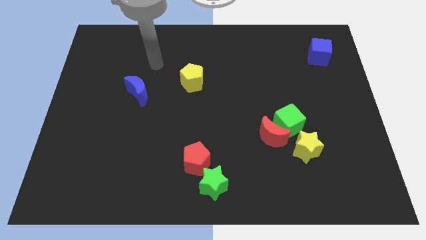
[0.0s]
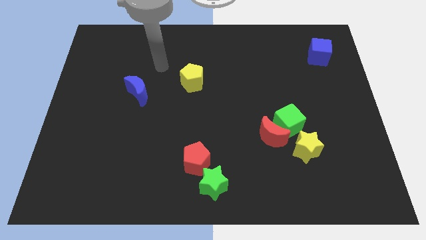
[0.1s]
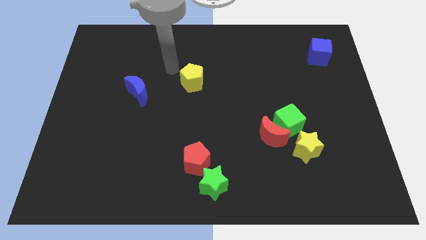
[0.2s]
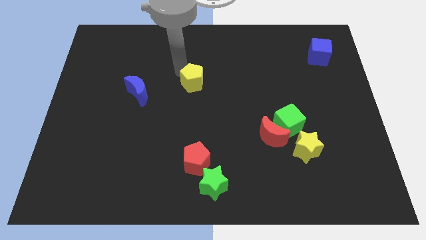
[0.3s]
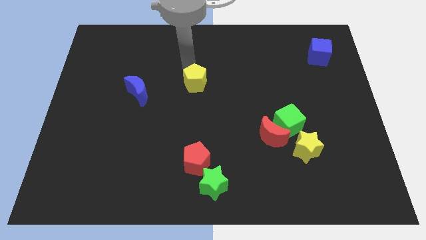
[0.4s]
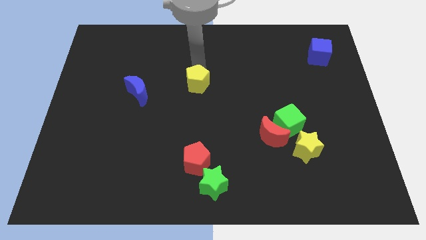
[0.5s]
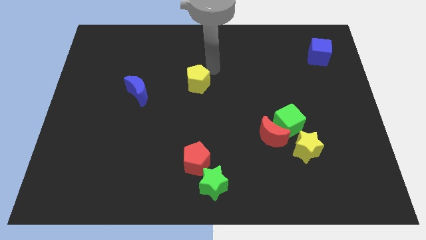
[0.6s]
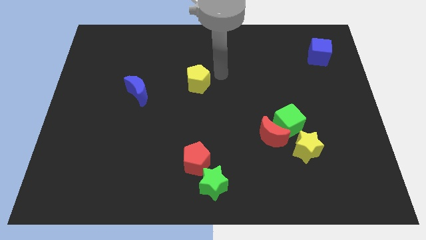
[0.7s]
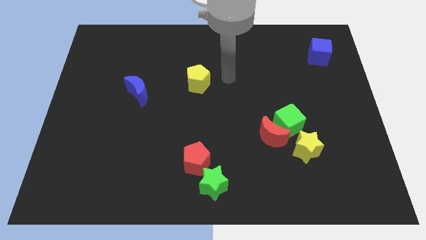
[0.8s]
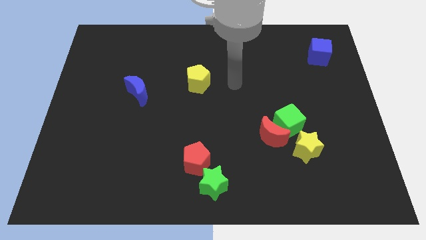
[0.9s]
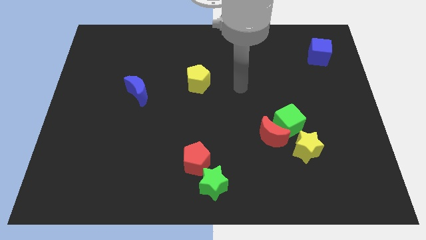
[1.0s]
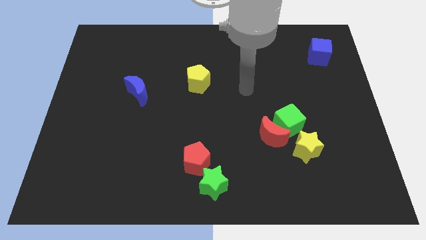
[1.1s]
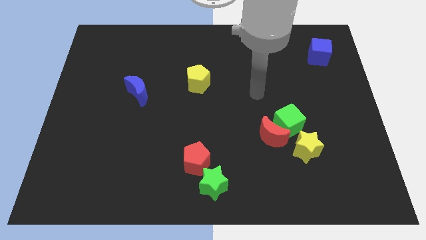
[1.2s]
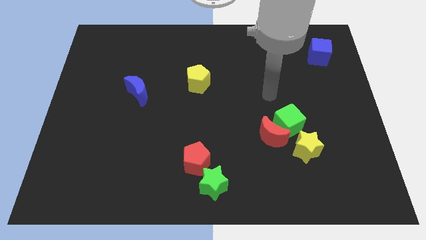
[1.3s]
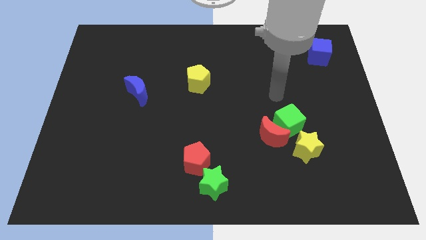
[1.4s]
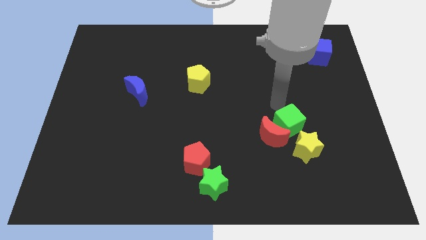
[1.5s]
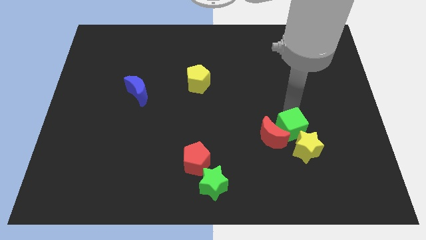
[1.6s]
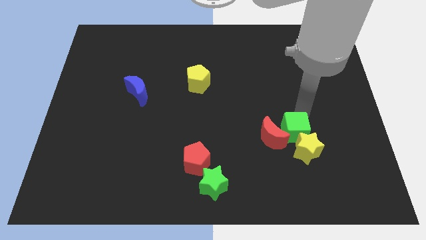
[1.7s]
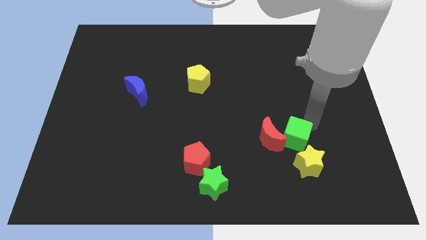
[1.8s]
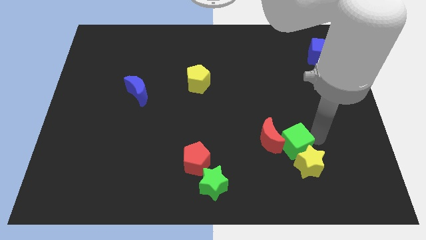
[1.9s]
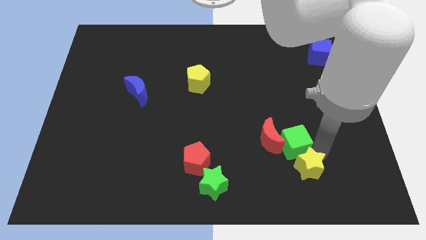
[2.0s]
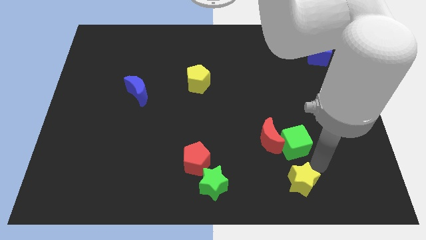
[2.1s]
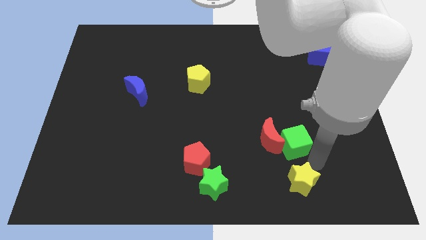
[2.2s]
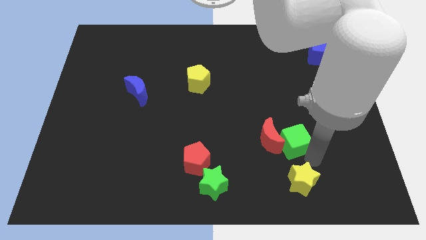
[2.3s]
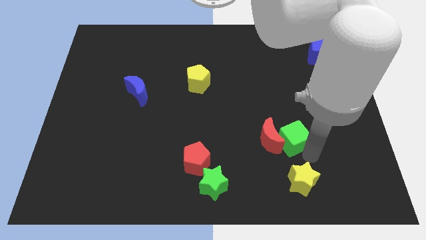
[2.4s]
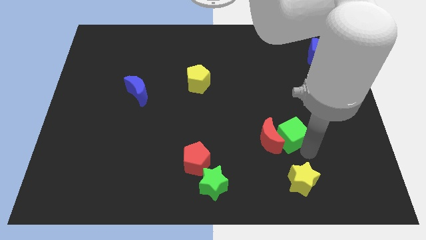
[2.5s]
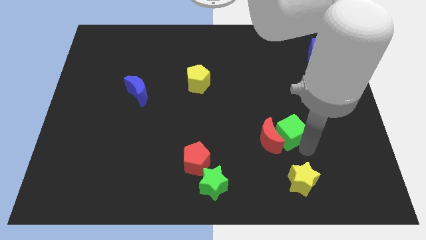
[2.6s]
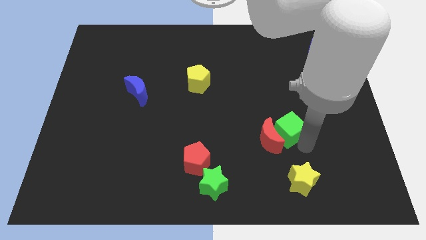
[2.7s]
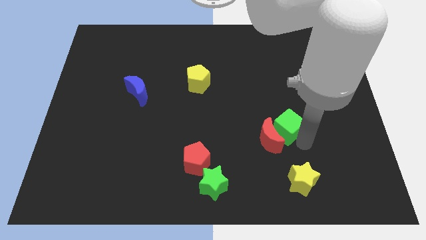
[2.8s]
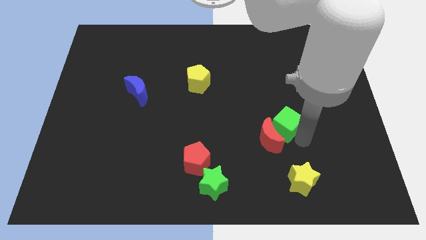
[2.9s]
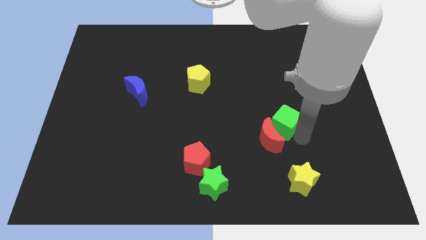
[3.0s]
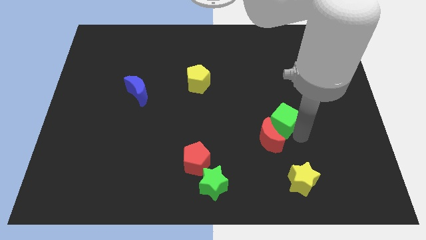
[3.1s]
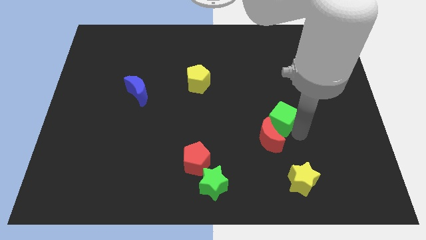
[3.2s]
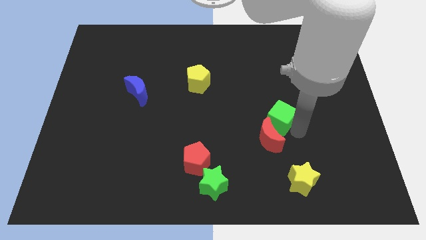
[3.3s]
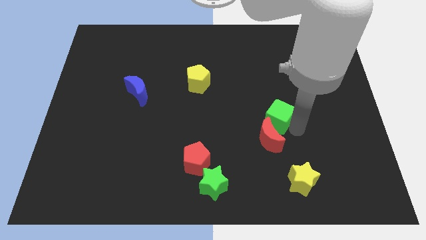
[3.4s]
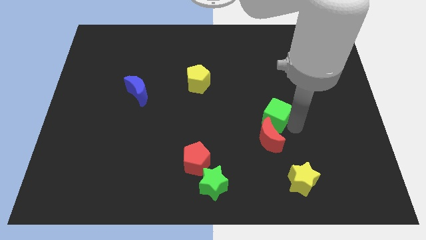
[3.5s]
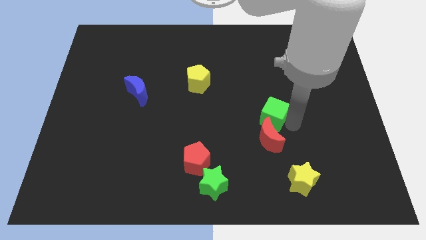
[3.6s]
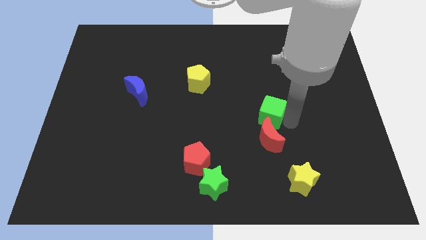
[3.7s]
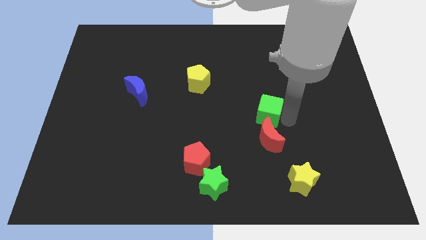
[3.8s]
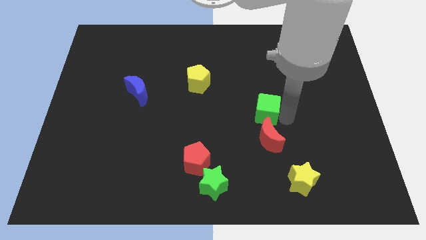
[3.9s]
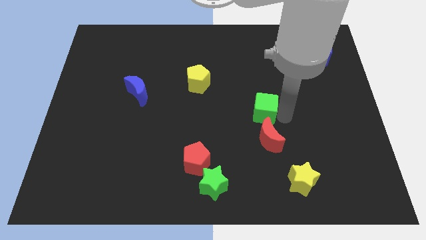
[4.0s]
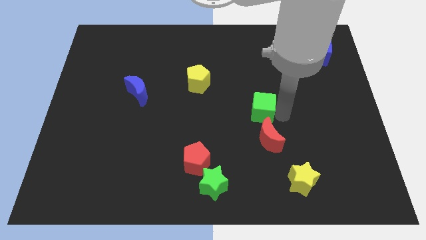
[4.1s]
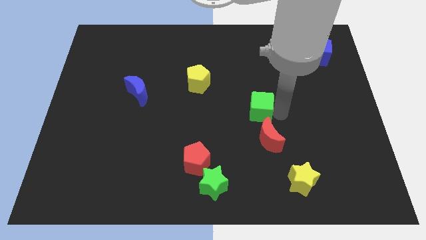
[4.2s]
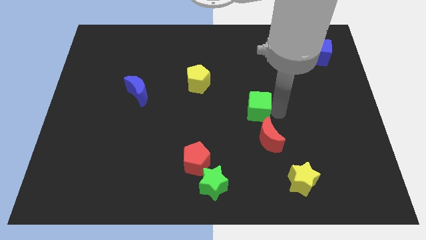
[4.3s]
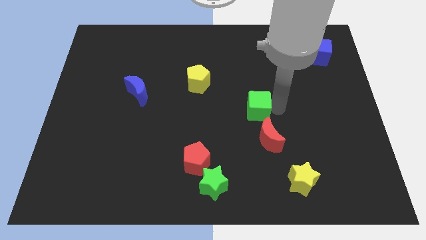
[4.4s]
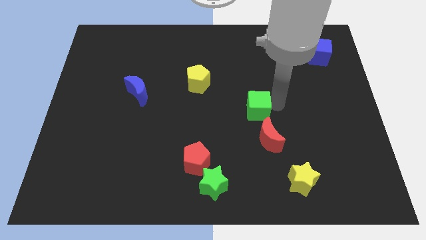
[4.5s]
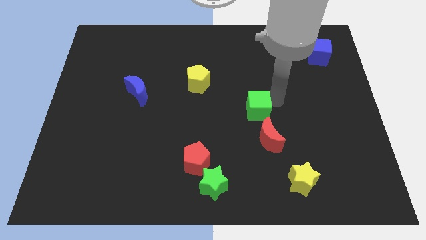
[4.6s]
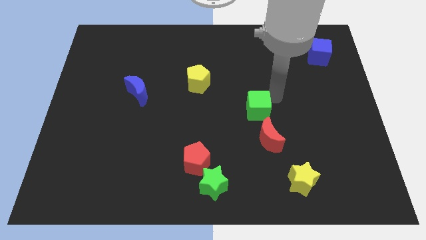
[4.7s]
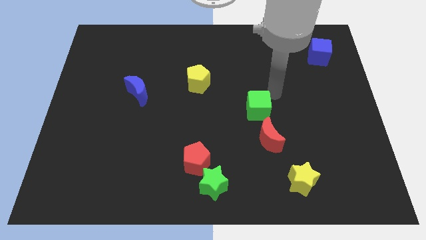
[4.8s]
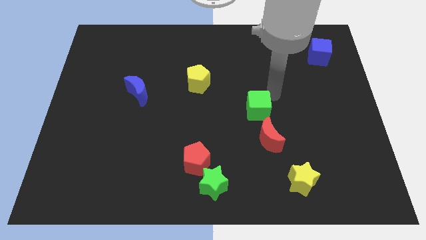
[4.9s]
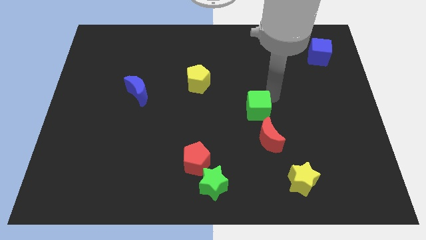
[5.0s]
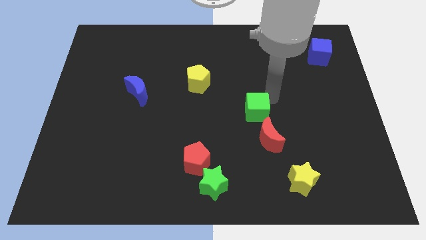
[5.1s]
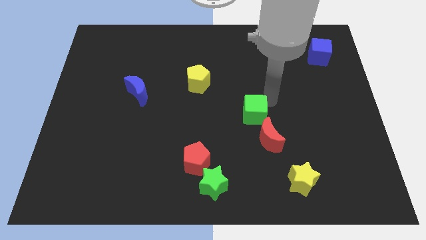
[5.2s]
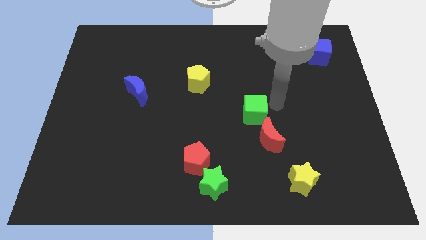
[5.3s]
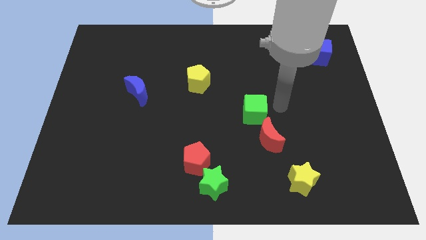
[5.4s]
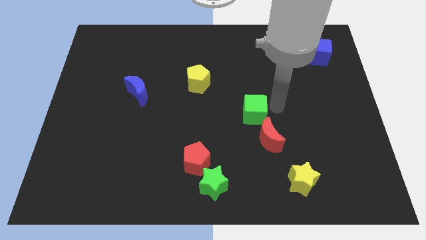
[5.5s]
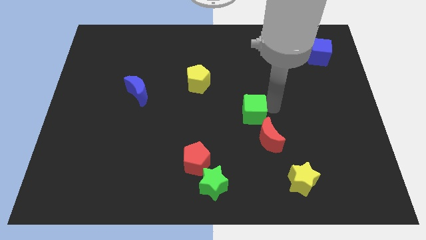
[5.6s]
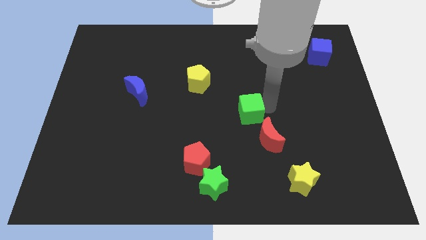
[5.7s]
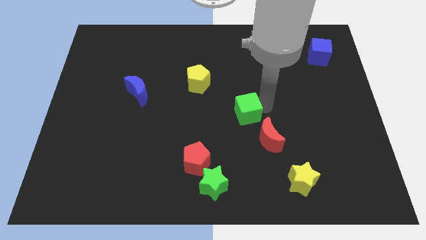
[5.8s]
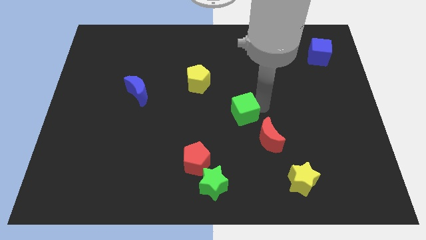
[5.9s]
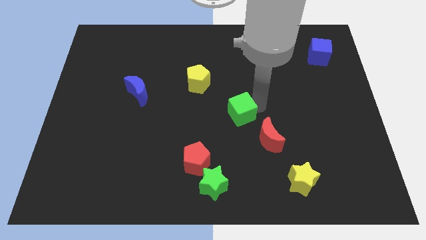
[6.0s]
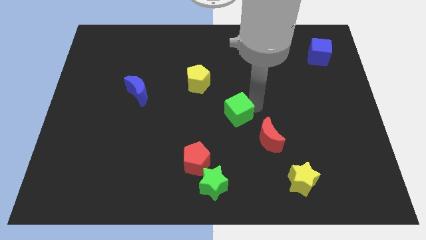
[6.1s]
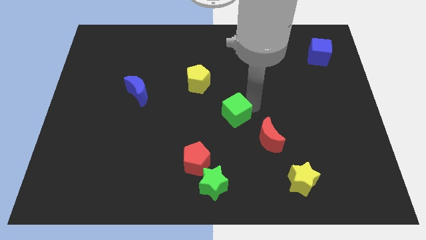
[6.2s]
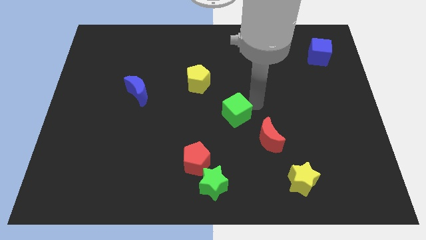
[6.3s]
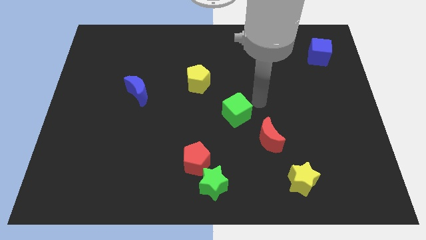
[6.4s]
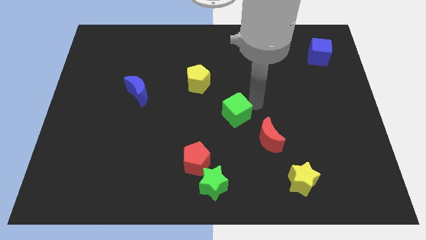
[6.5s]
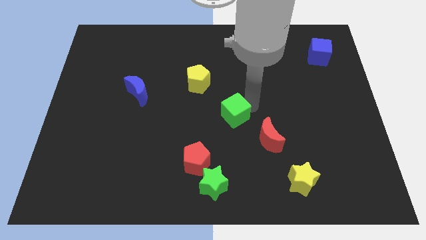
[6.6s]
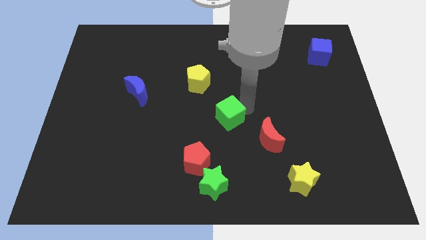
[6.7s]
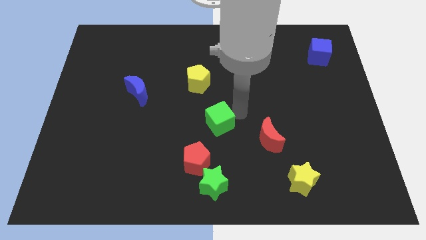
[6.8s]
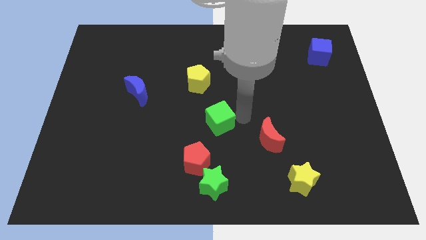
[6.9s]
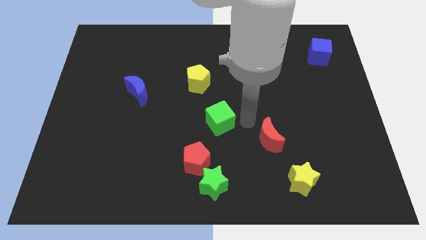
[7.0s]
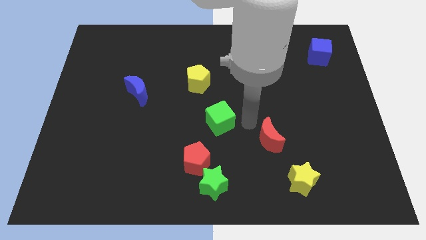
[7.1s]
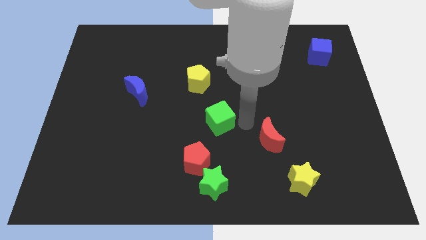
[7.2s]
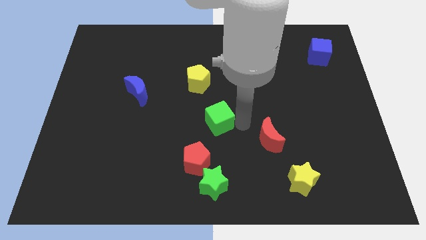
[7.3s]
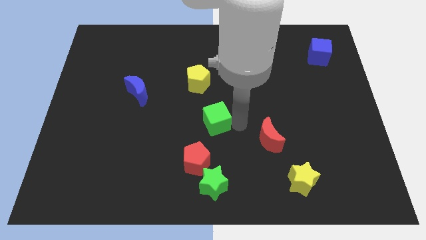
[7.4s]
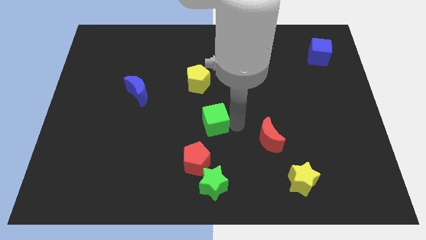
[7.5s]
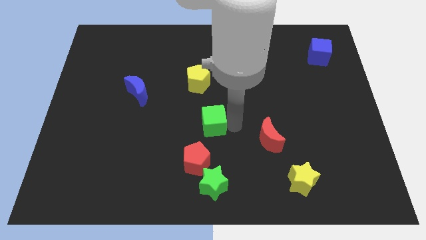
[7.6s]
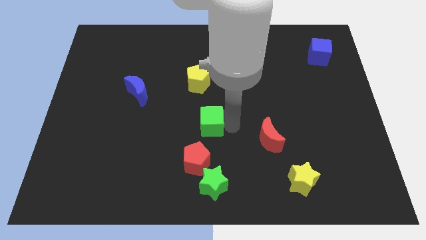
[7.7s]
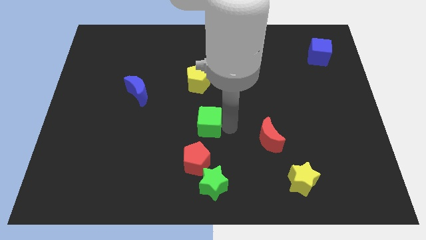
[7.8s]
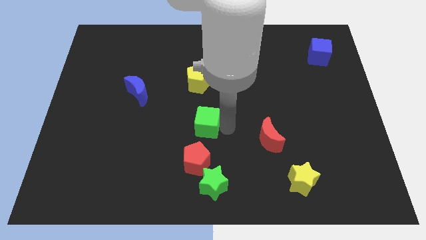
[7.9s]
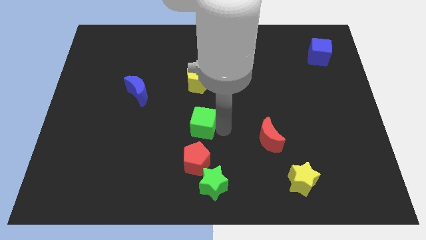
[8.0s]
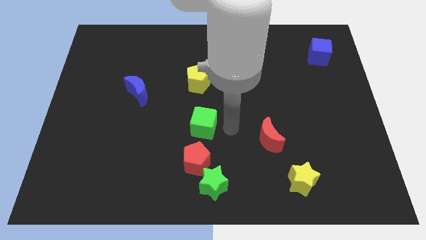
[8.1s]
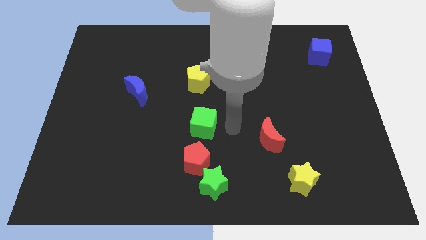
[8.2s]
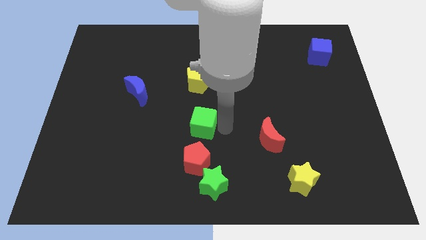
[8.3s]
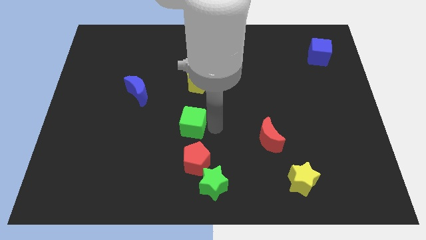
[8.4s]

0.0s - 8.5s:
push the green cube to the left
